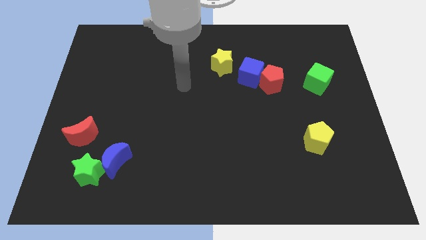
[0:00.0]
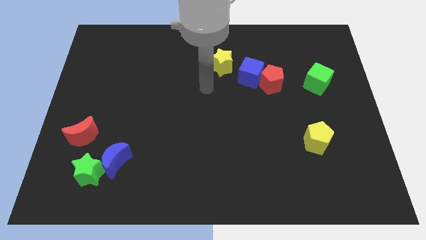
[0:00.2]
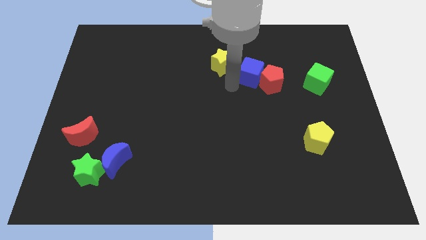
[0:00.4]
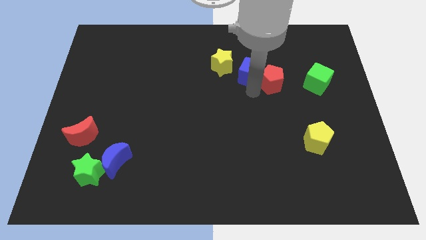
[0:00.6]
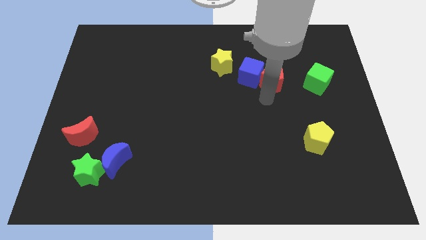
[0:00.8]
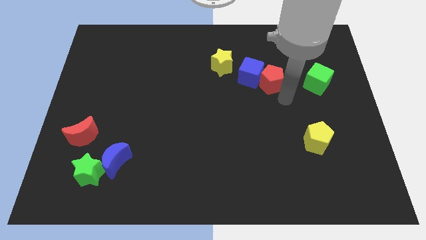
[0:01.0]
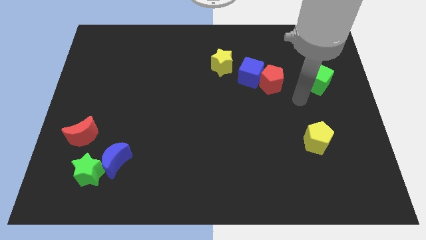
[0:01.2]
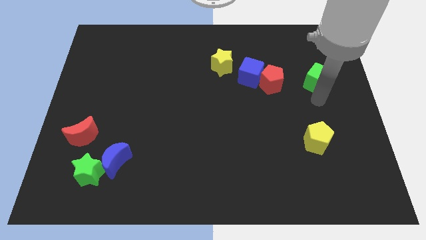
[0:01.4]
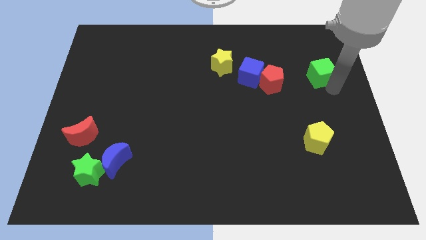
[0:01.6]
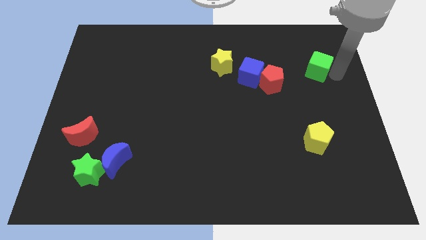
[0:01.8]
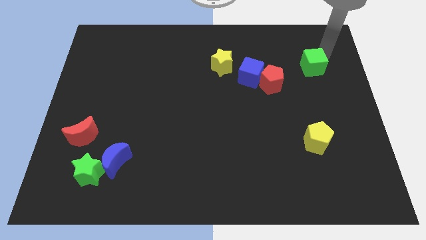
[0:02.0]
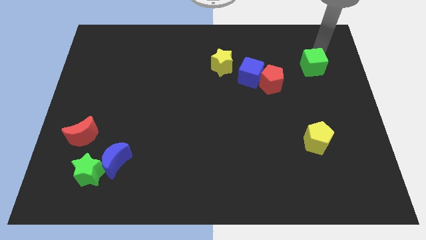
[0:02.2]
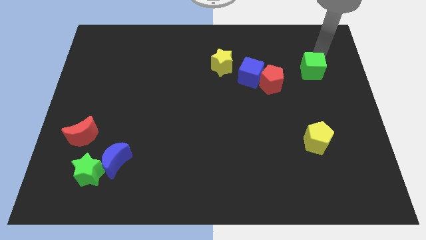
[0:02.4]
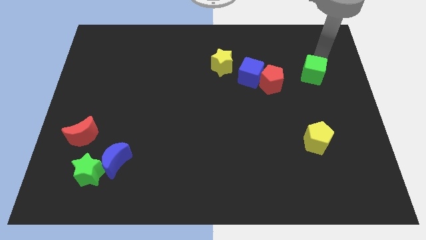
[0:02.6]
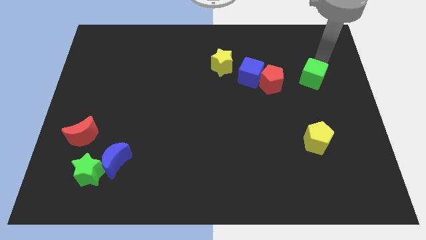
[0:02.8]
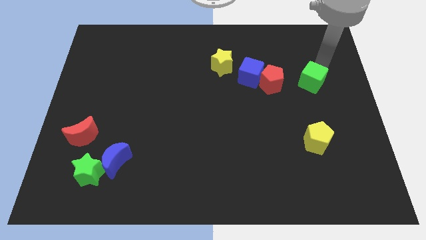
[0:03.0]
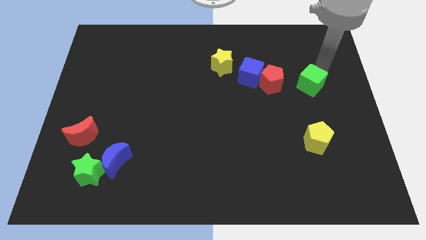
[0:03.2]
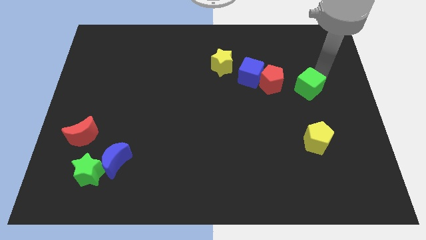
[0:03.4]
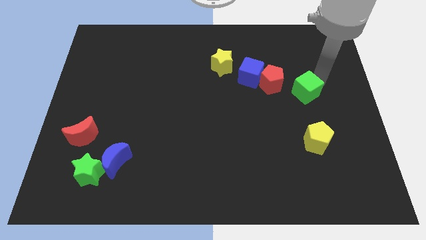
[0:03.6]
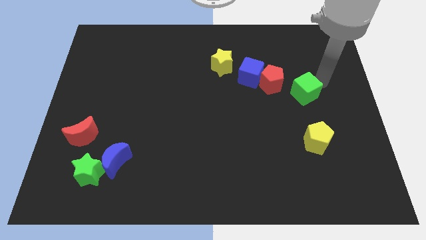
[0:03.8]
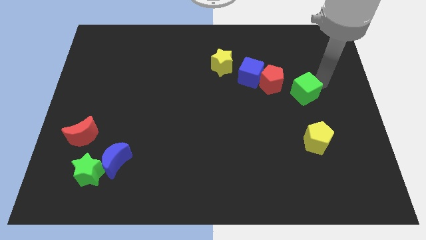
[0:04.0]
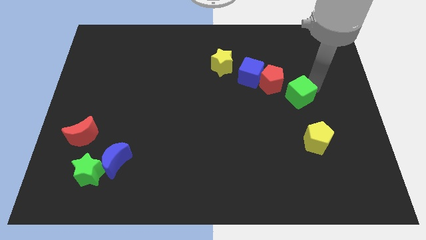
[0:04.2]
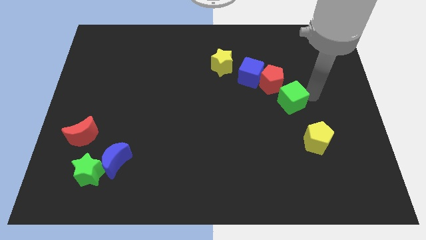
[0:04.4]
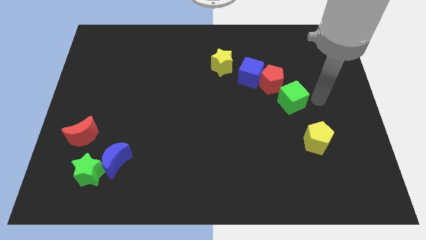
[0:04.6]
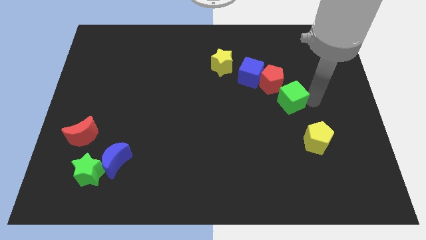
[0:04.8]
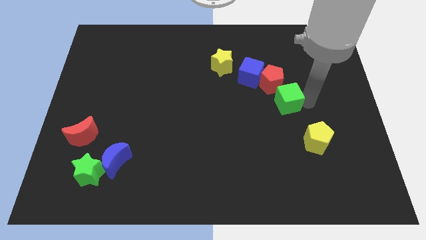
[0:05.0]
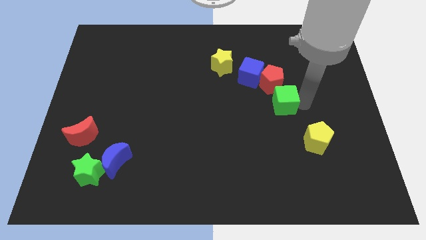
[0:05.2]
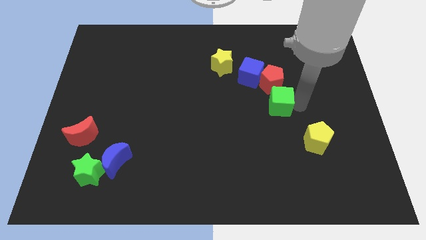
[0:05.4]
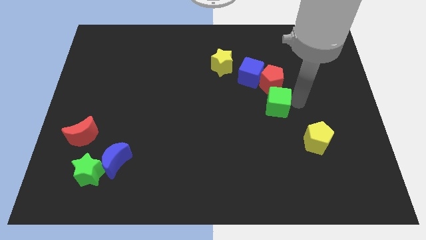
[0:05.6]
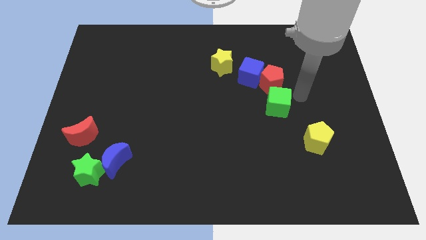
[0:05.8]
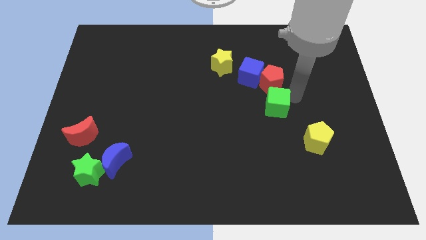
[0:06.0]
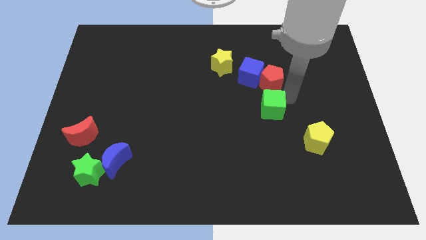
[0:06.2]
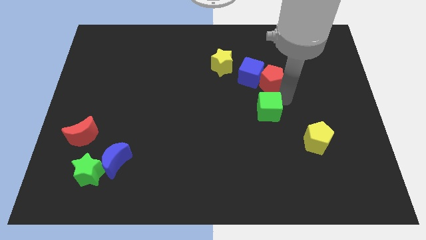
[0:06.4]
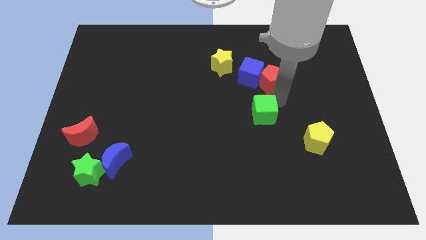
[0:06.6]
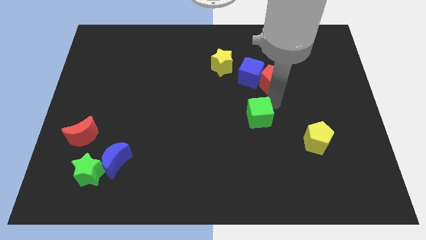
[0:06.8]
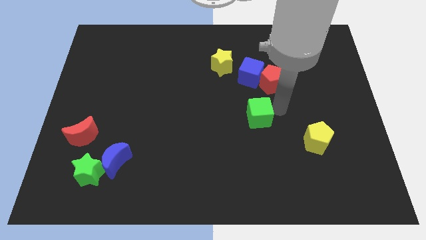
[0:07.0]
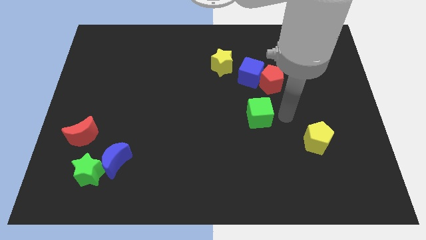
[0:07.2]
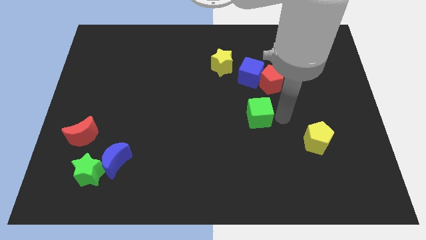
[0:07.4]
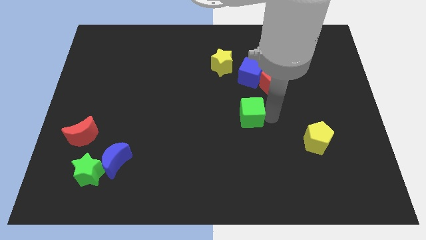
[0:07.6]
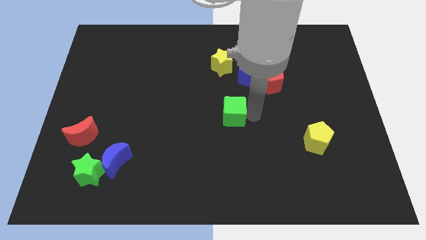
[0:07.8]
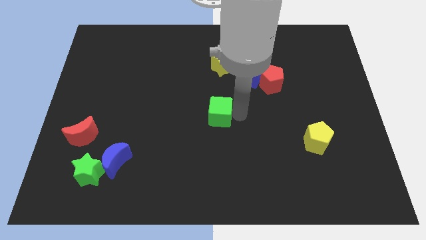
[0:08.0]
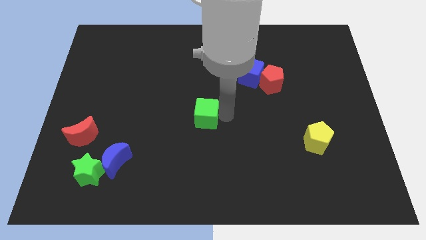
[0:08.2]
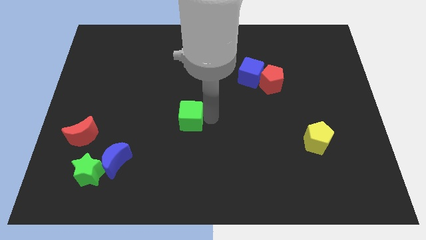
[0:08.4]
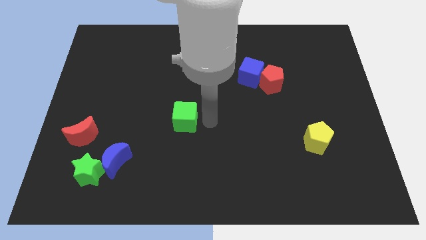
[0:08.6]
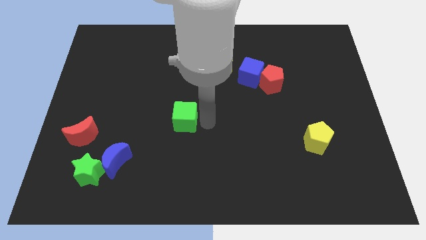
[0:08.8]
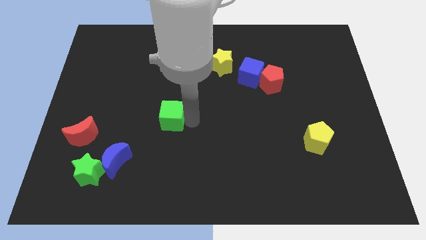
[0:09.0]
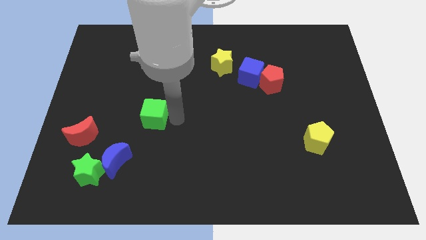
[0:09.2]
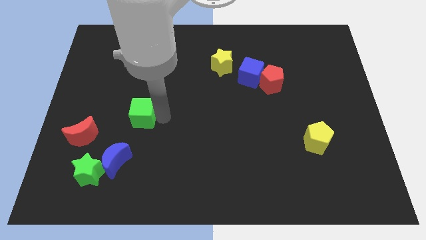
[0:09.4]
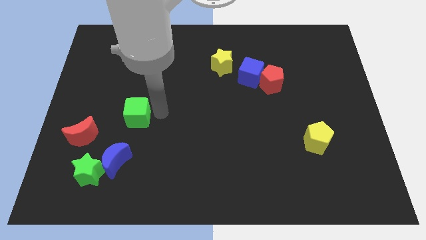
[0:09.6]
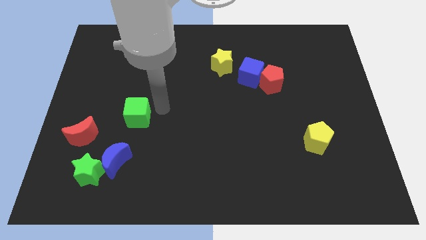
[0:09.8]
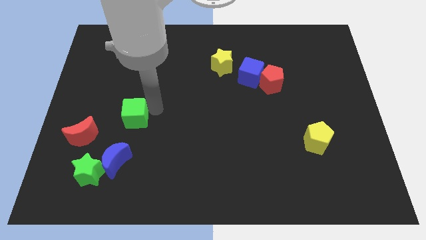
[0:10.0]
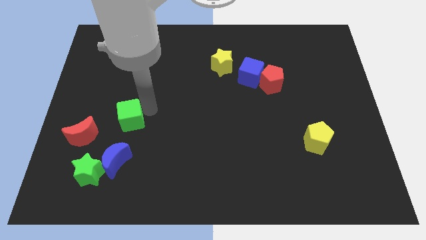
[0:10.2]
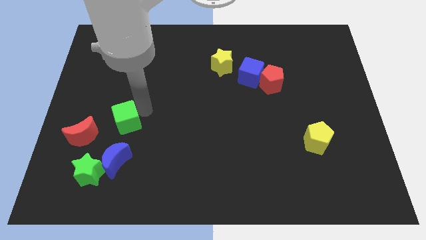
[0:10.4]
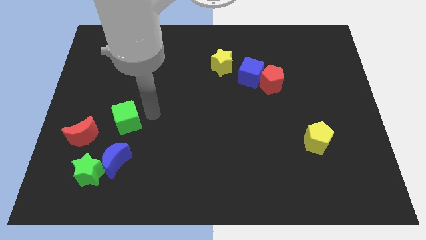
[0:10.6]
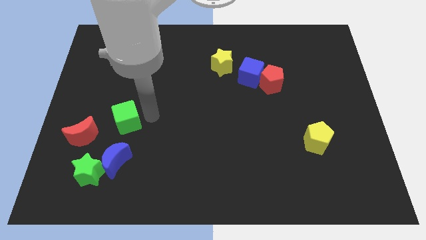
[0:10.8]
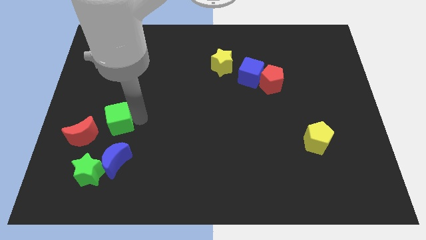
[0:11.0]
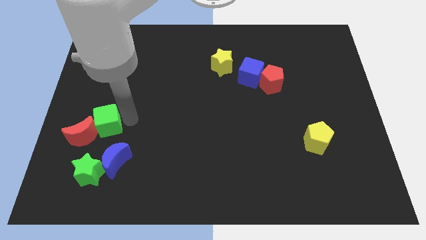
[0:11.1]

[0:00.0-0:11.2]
slide the green cube next to the red moon

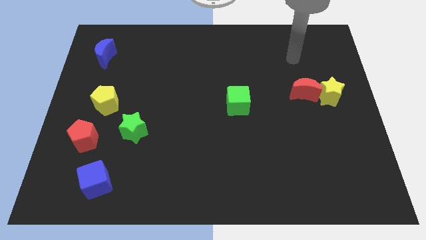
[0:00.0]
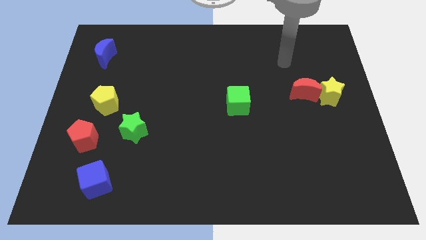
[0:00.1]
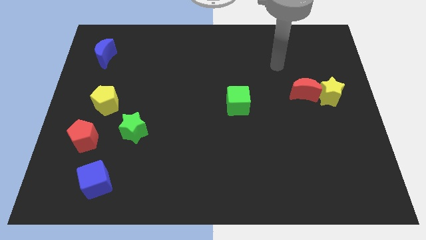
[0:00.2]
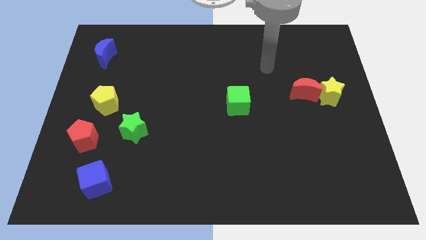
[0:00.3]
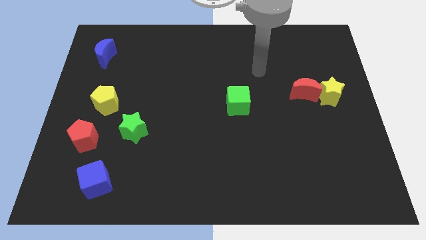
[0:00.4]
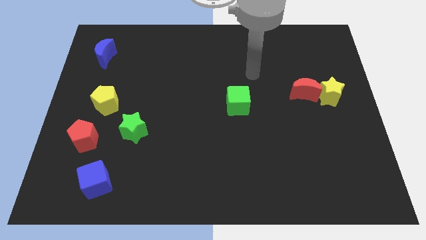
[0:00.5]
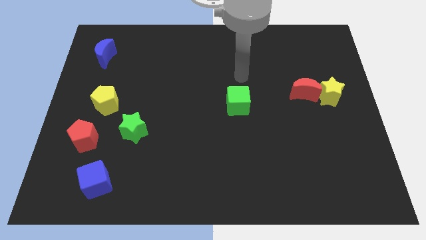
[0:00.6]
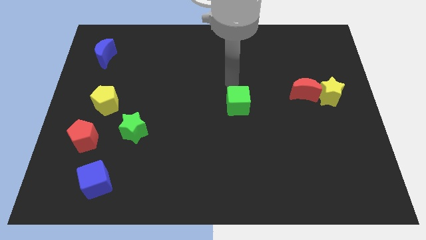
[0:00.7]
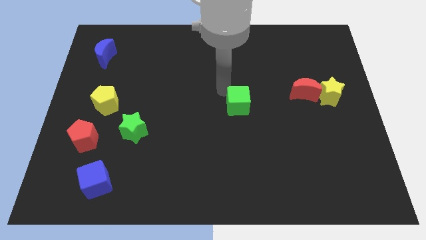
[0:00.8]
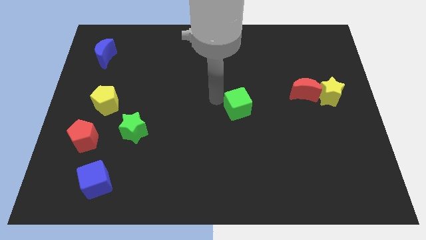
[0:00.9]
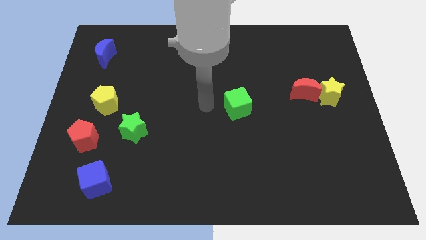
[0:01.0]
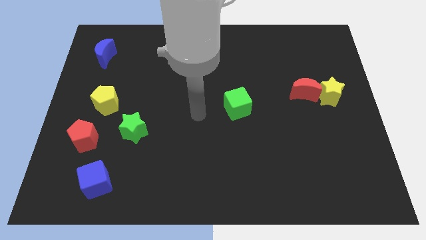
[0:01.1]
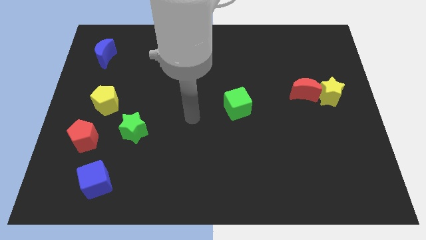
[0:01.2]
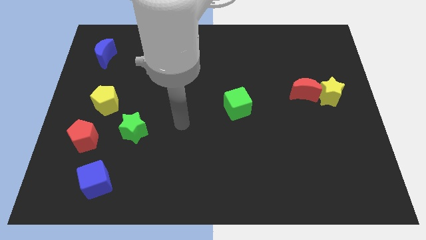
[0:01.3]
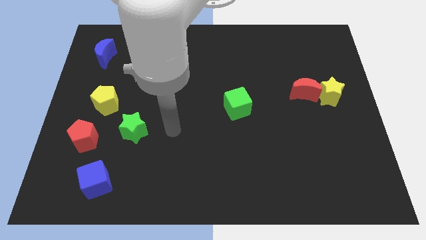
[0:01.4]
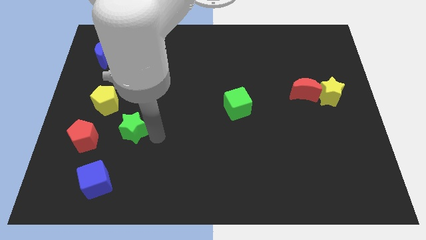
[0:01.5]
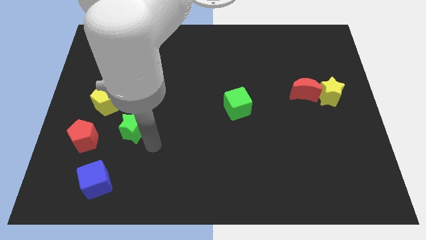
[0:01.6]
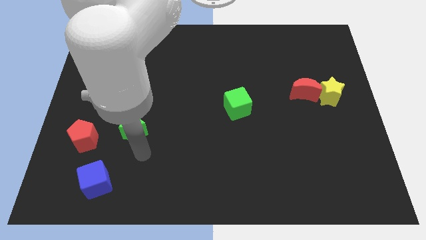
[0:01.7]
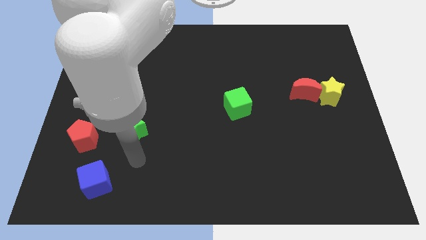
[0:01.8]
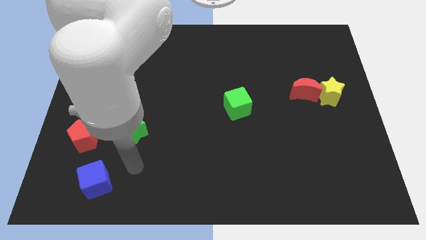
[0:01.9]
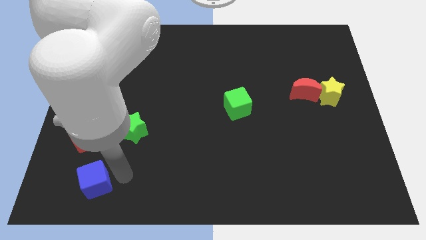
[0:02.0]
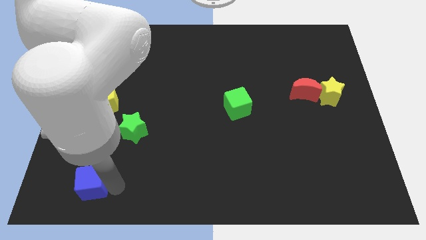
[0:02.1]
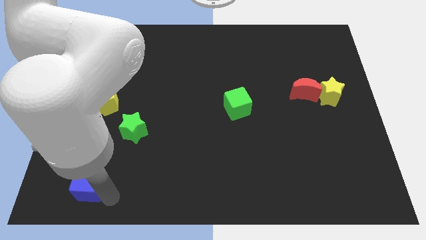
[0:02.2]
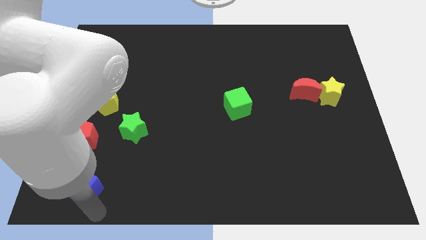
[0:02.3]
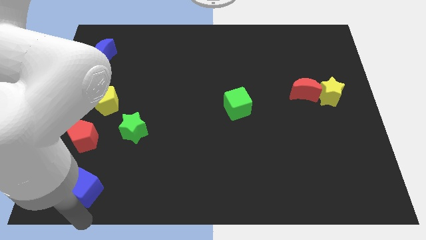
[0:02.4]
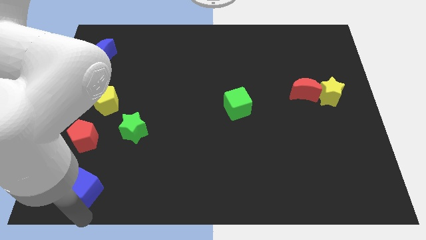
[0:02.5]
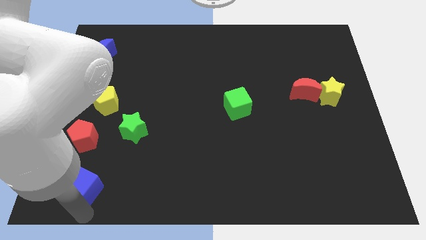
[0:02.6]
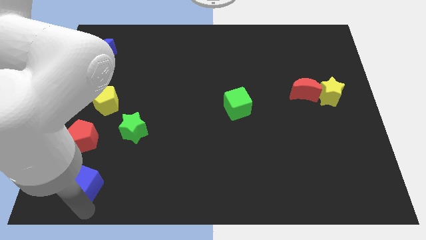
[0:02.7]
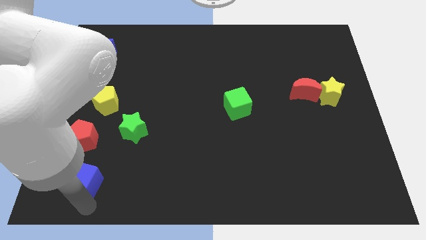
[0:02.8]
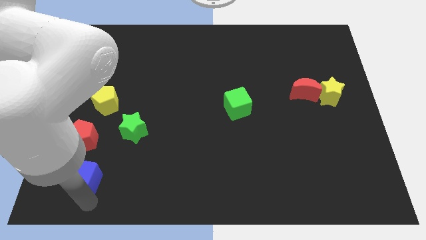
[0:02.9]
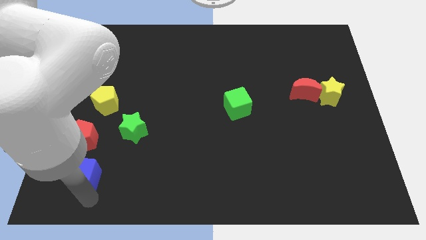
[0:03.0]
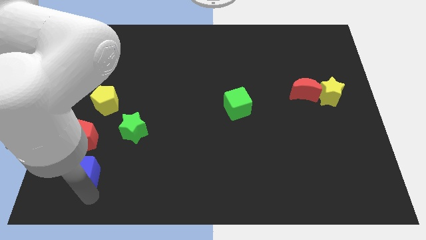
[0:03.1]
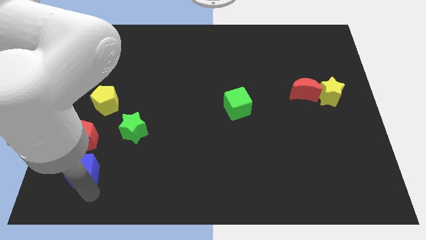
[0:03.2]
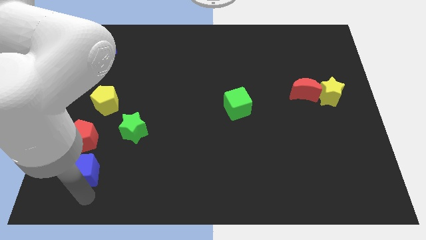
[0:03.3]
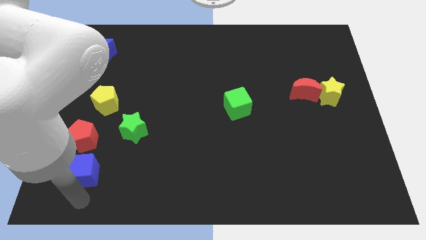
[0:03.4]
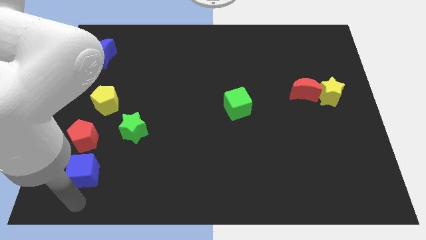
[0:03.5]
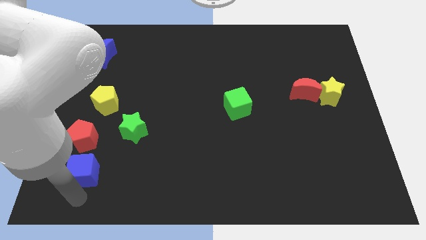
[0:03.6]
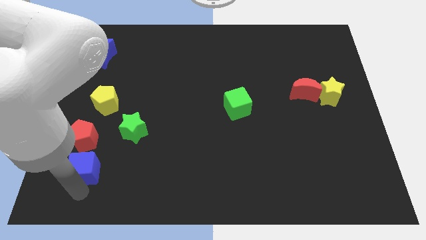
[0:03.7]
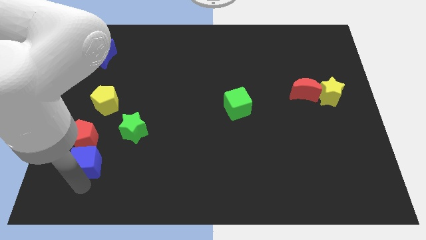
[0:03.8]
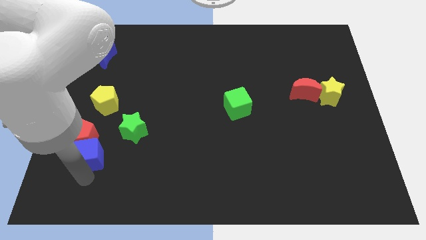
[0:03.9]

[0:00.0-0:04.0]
slide the blue cube close to the red pentagon
